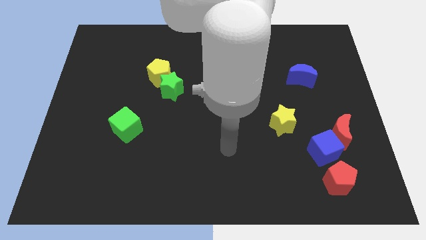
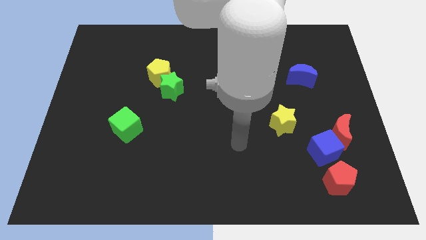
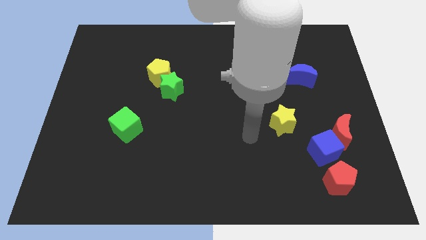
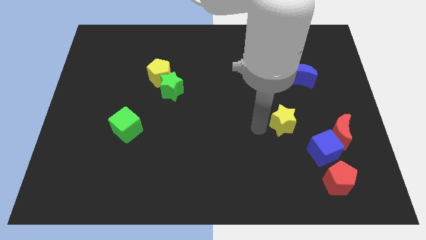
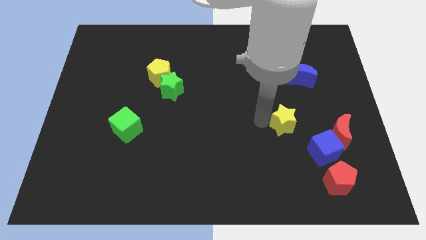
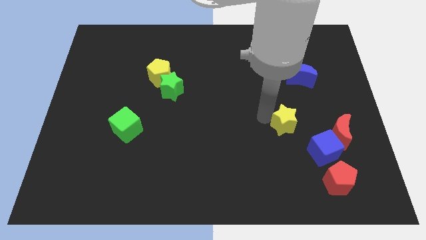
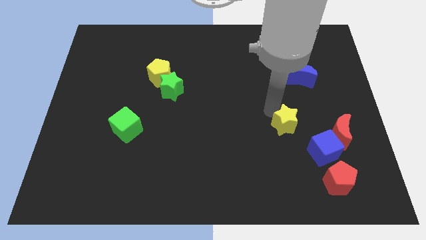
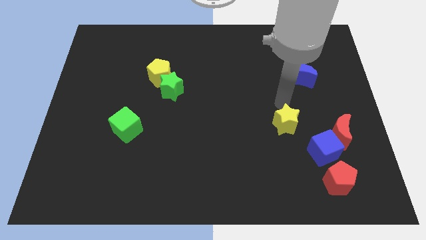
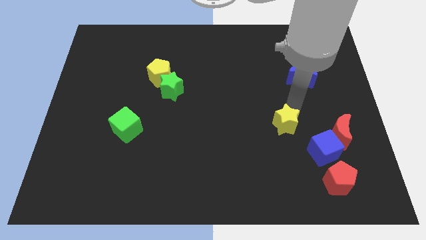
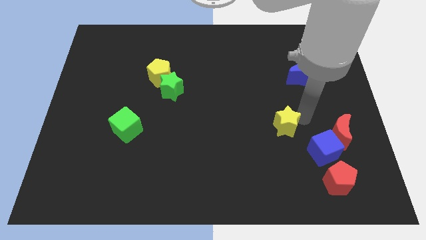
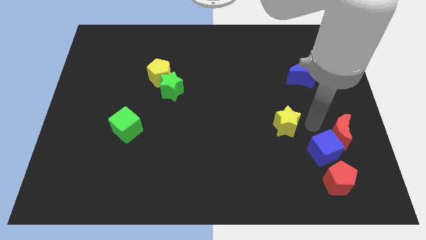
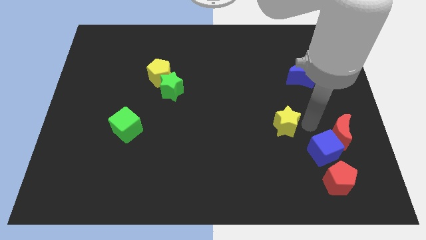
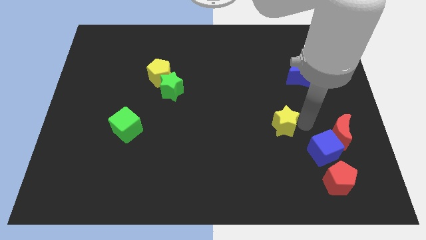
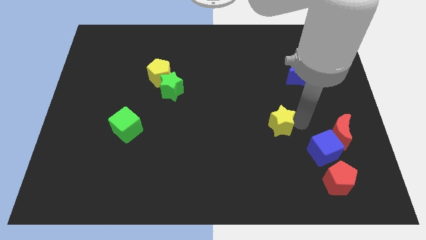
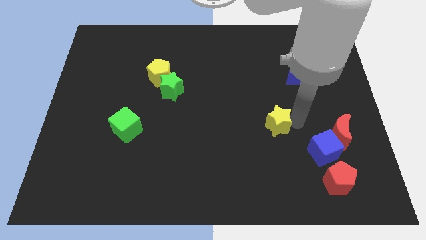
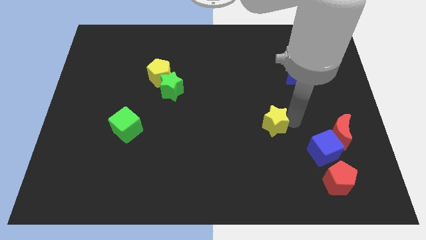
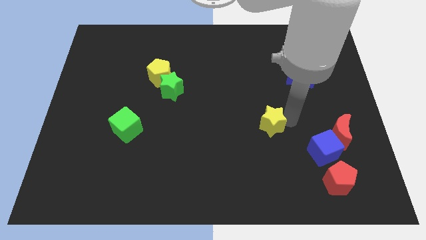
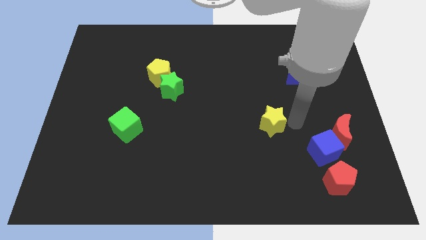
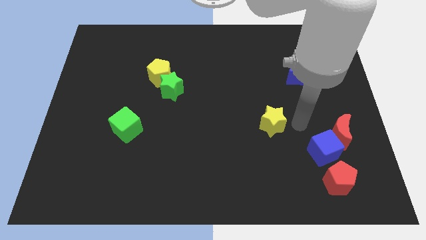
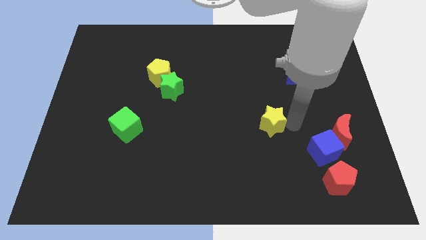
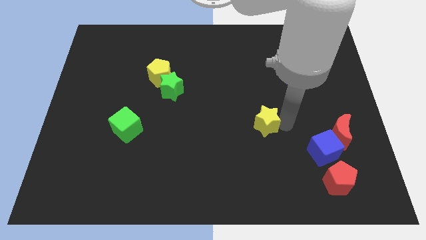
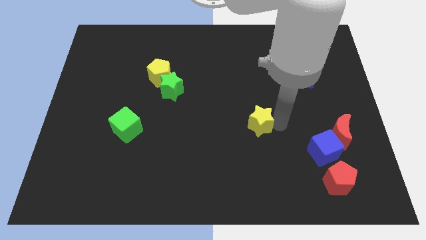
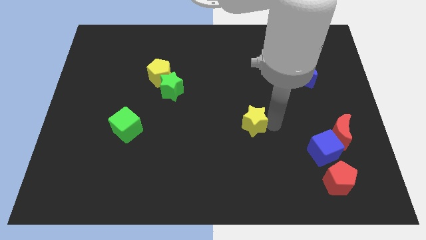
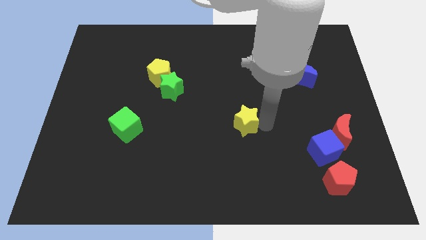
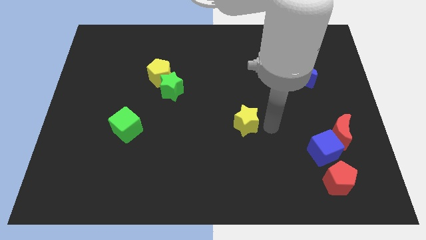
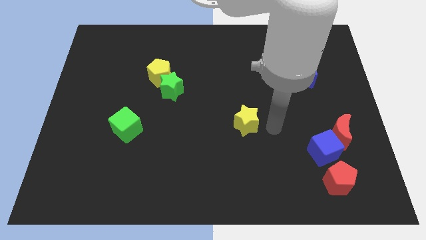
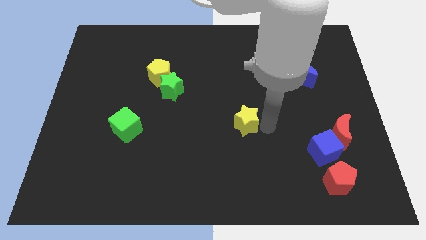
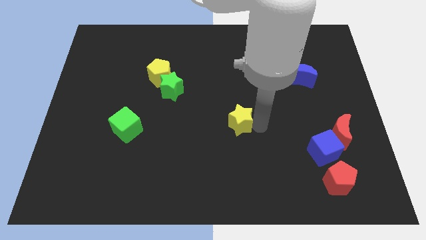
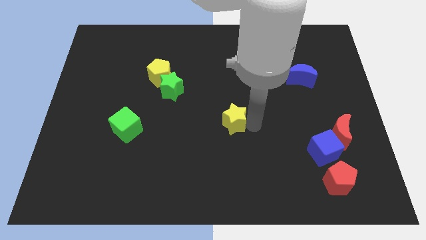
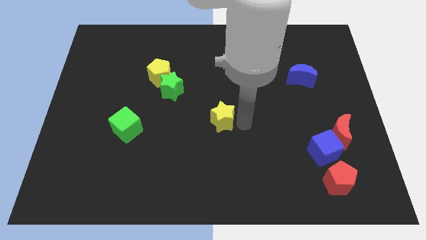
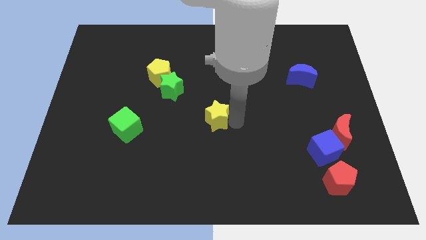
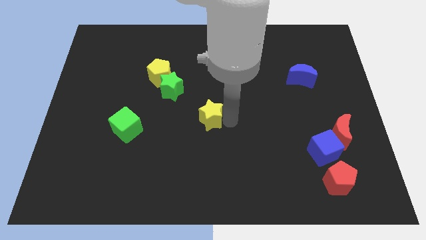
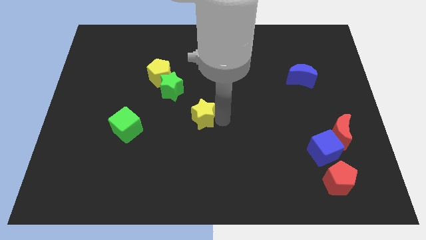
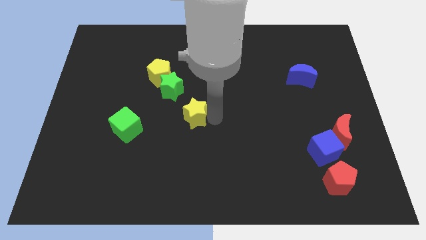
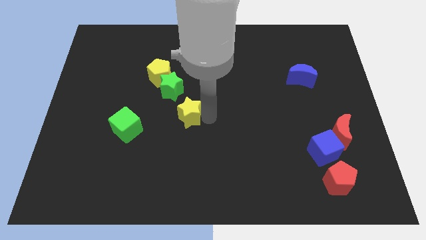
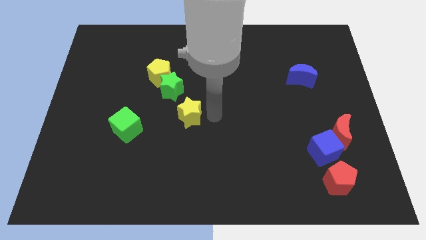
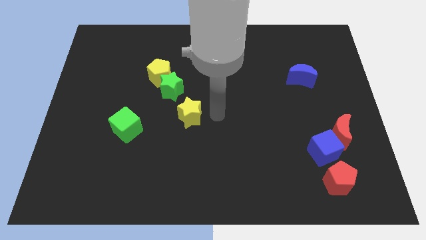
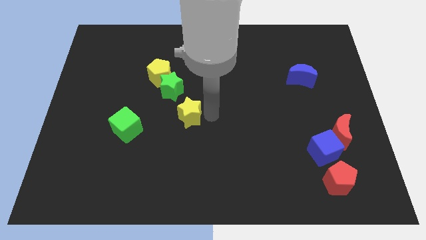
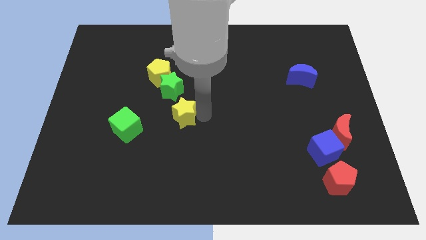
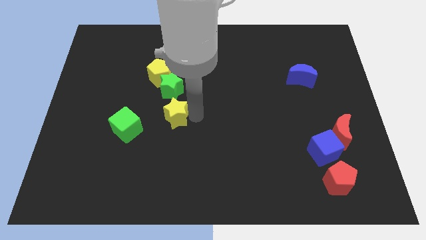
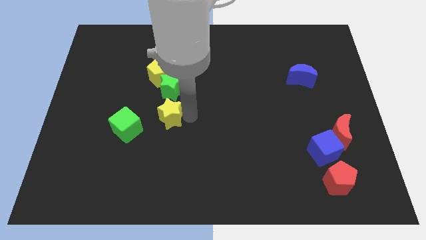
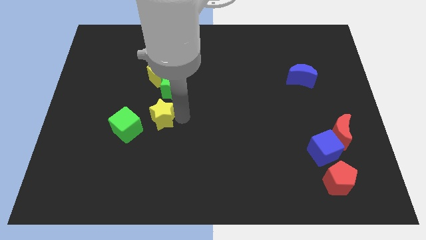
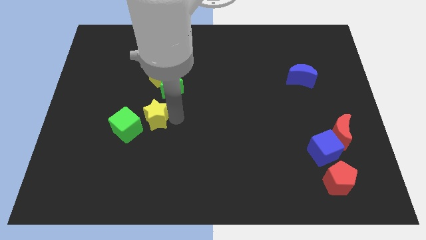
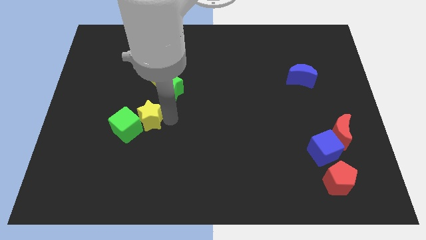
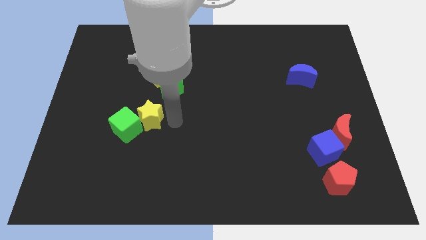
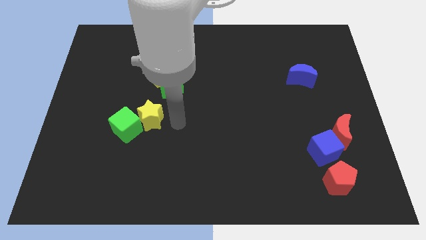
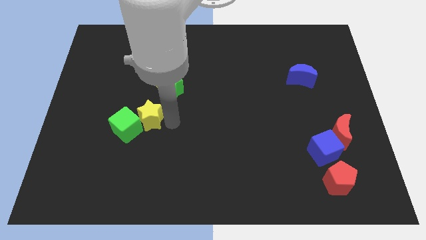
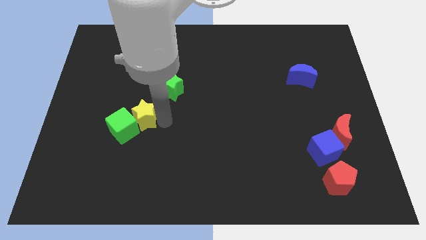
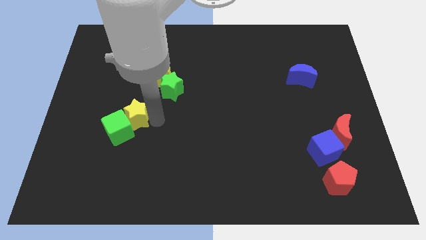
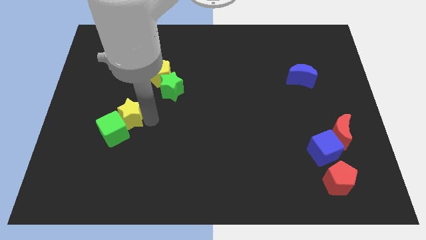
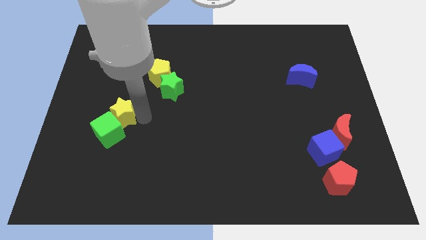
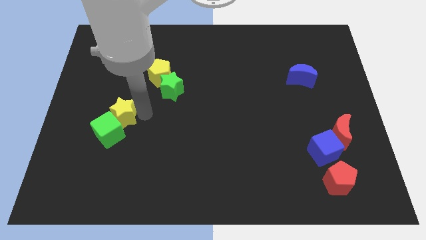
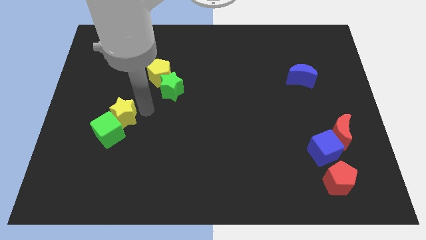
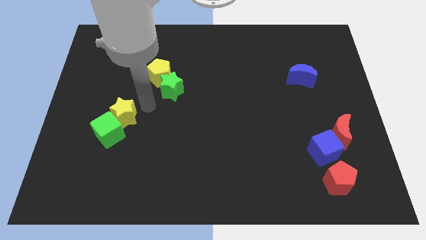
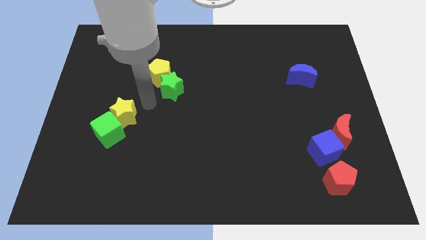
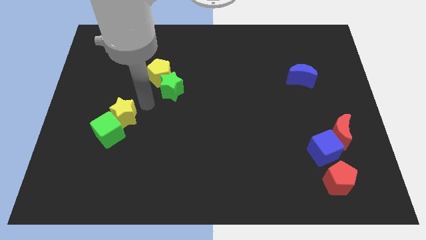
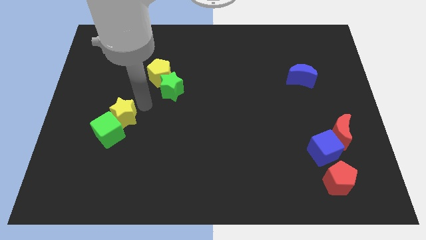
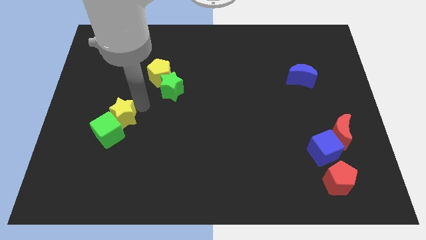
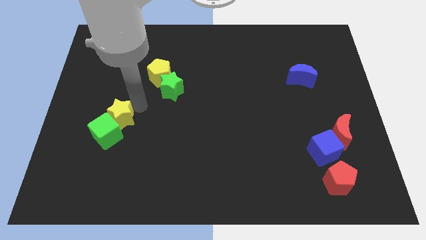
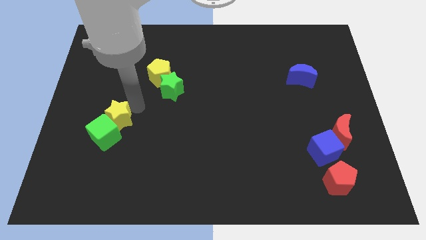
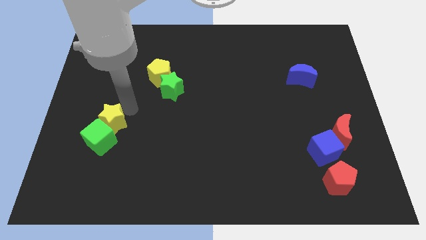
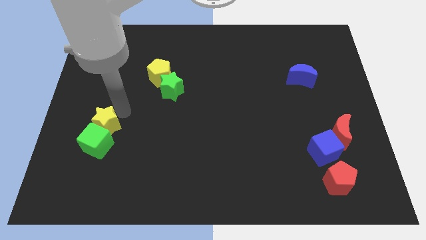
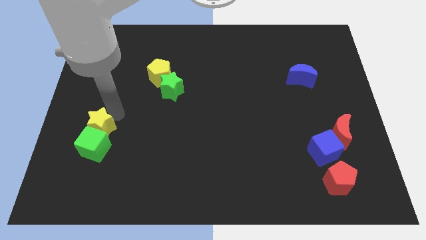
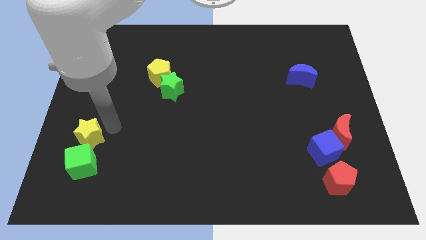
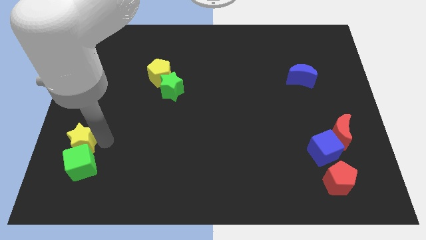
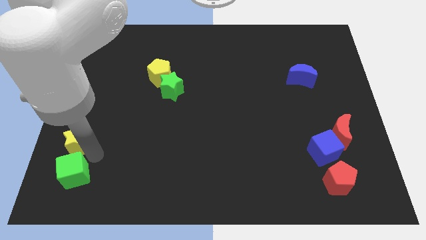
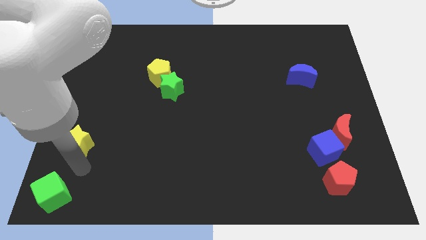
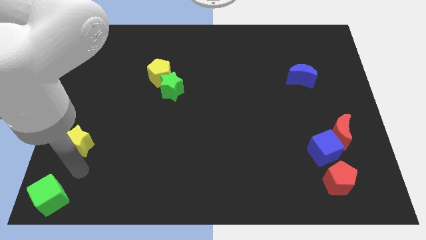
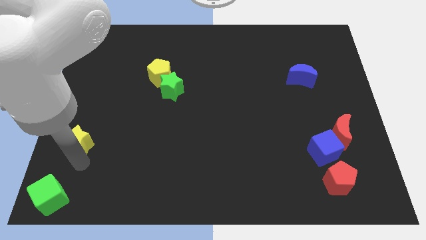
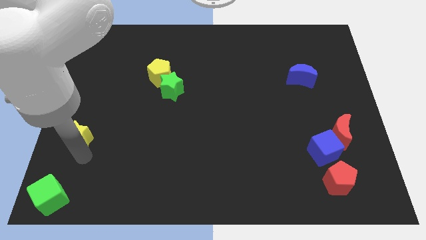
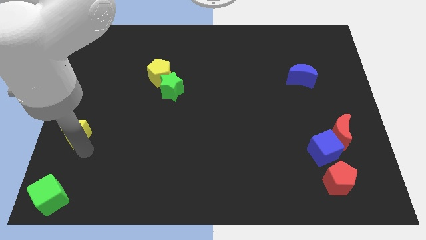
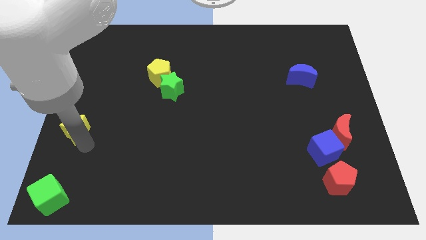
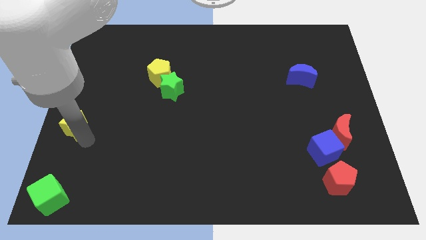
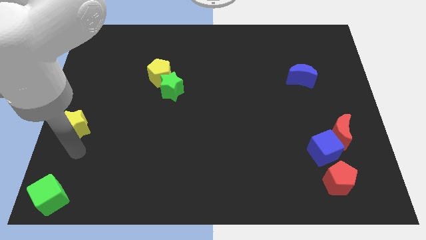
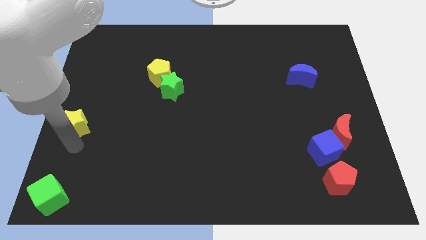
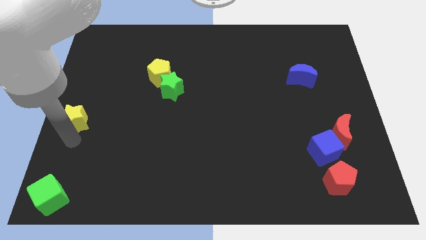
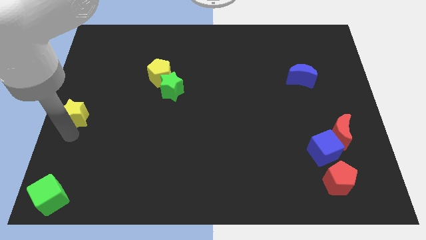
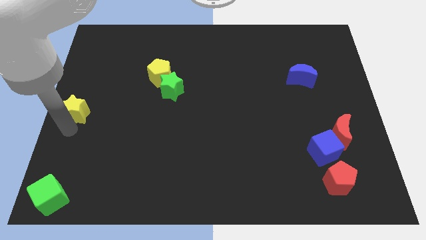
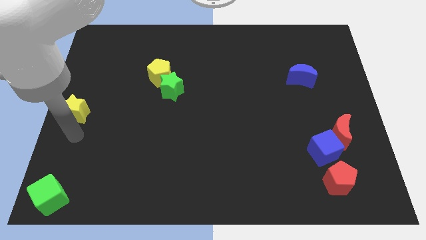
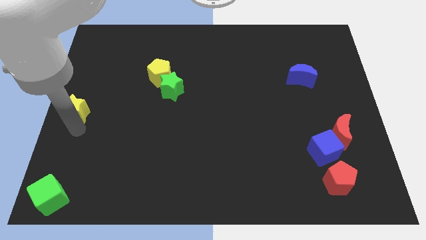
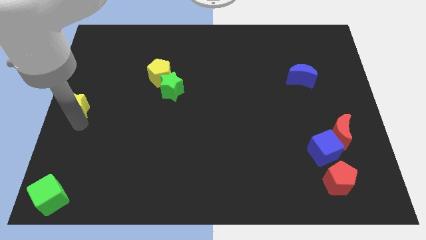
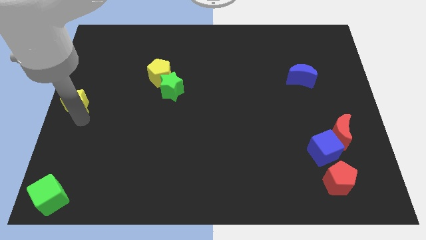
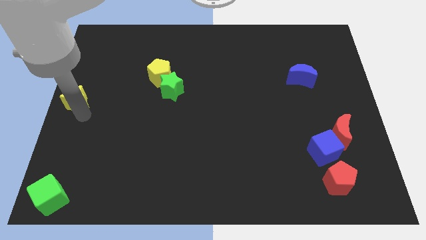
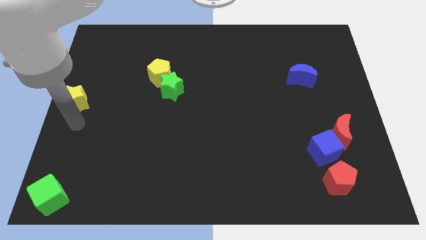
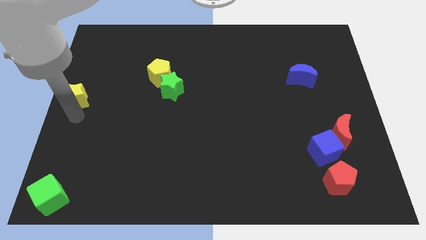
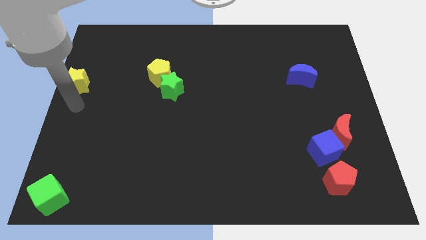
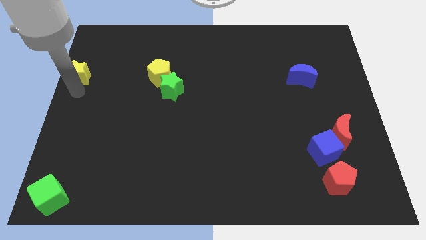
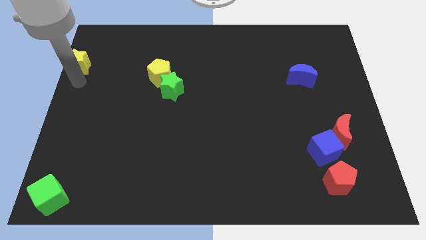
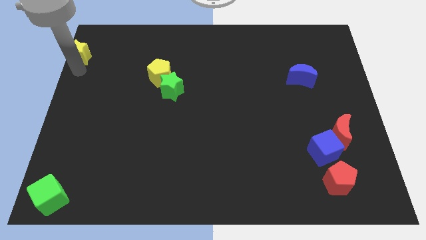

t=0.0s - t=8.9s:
push the yellow star to the top left corner
